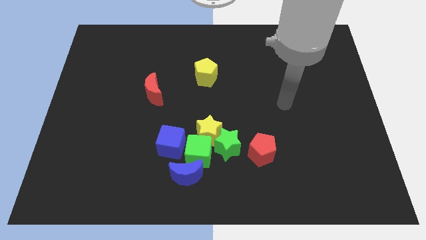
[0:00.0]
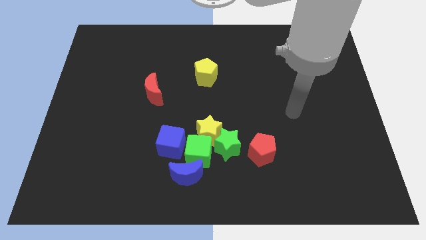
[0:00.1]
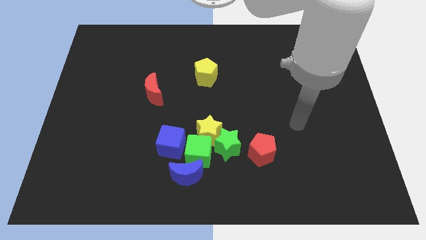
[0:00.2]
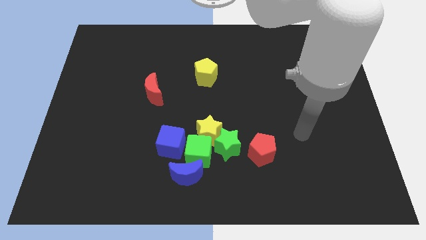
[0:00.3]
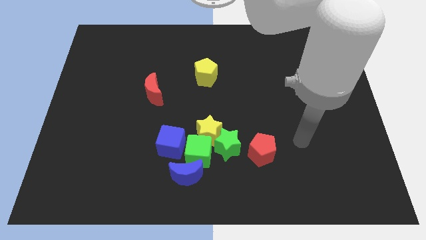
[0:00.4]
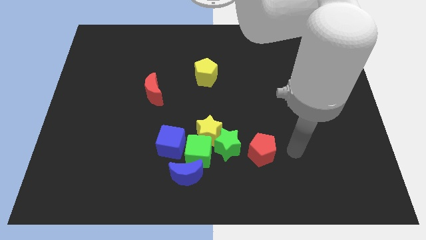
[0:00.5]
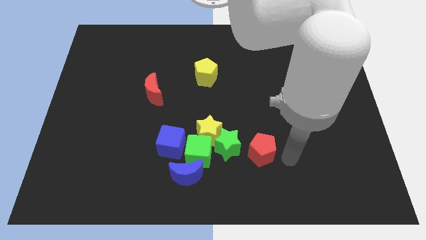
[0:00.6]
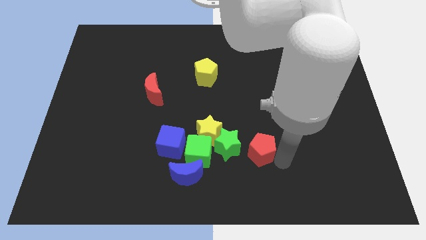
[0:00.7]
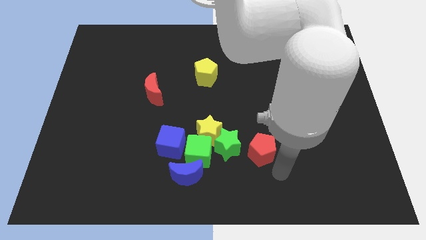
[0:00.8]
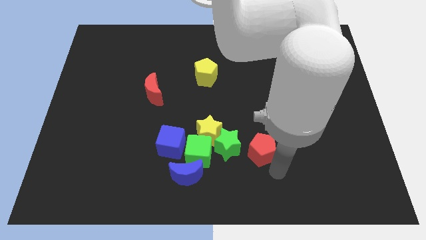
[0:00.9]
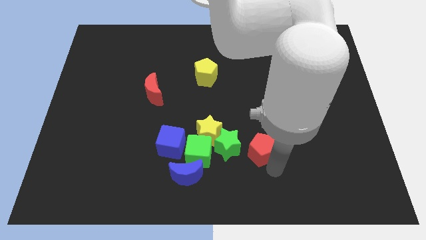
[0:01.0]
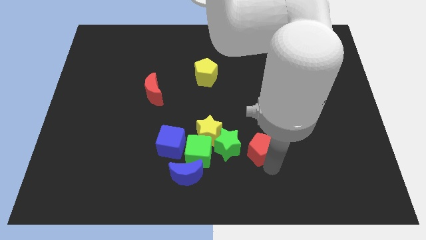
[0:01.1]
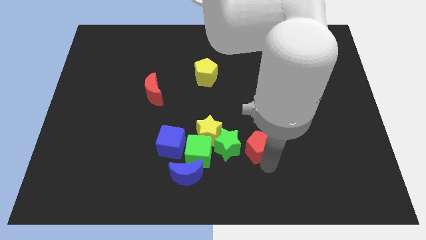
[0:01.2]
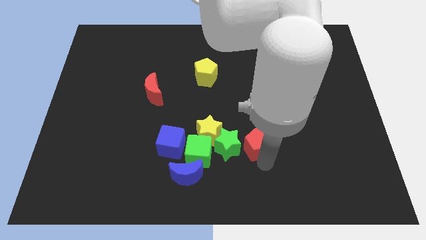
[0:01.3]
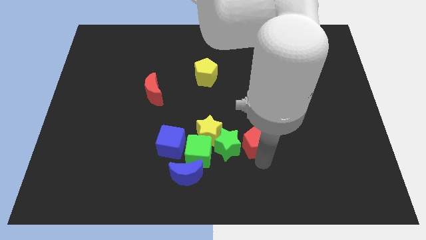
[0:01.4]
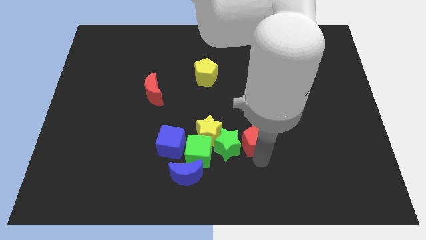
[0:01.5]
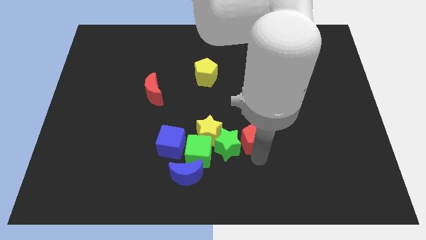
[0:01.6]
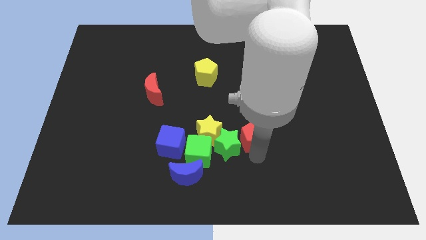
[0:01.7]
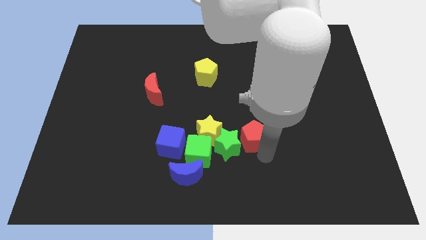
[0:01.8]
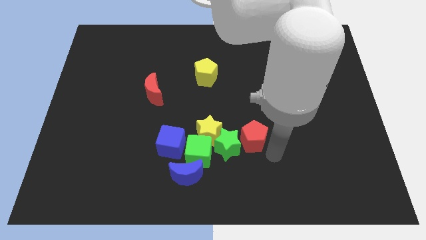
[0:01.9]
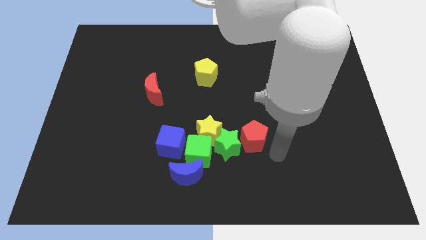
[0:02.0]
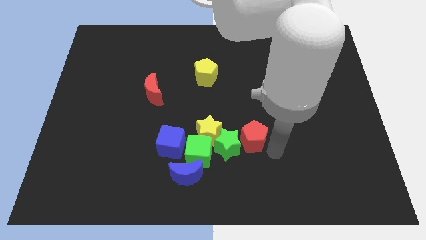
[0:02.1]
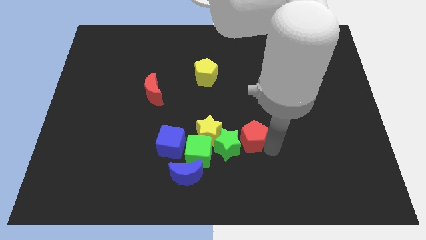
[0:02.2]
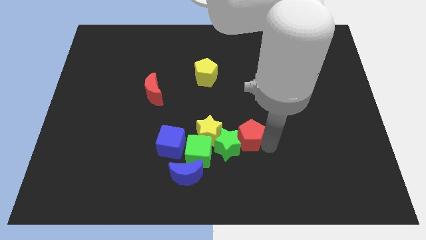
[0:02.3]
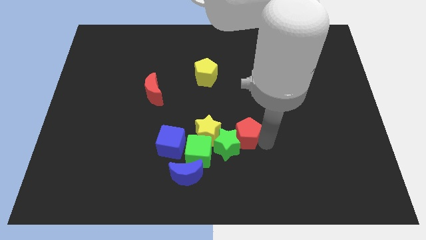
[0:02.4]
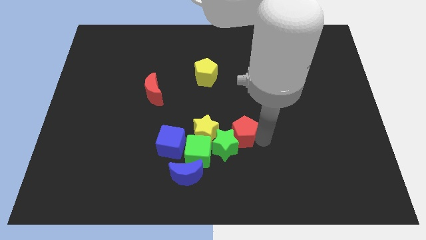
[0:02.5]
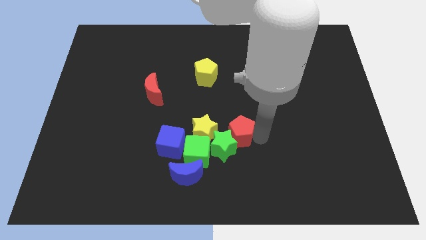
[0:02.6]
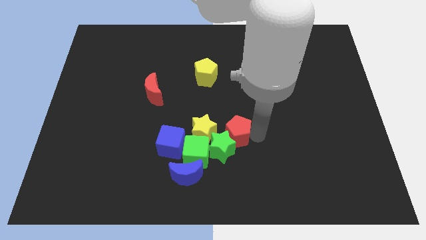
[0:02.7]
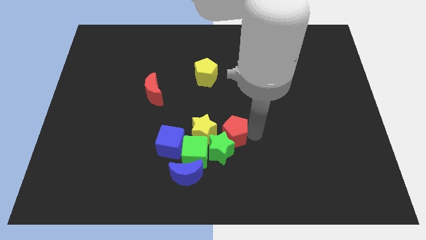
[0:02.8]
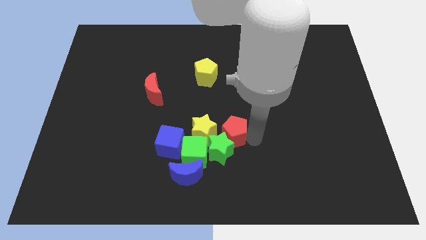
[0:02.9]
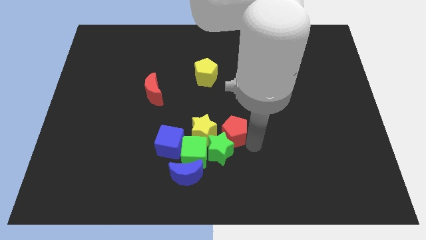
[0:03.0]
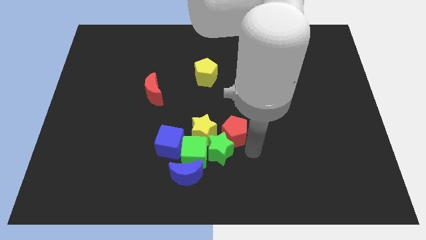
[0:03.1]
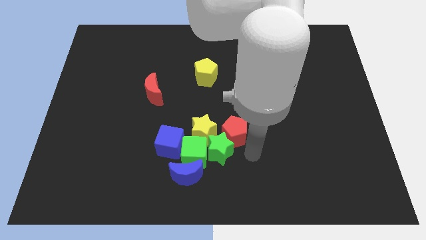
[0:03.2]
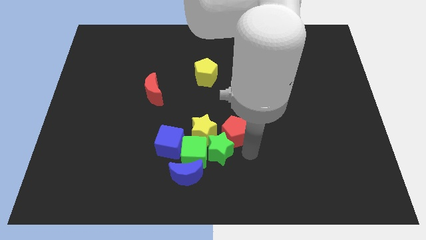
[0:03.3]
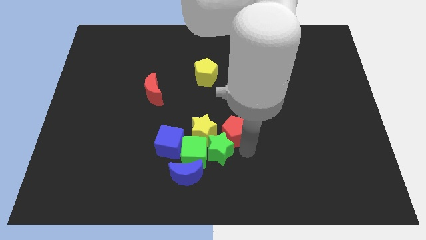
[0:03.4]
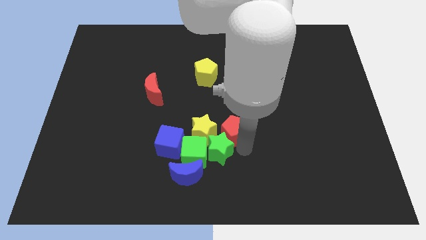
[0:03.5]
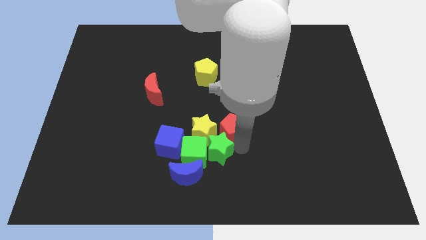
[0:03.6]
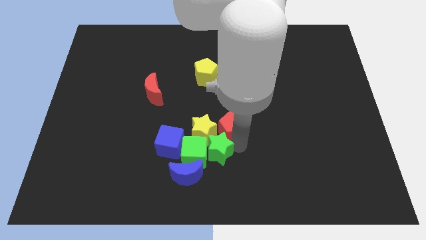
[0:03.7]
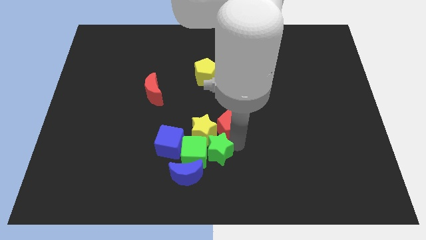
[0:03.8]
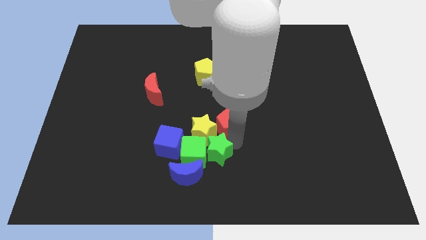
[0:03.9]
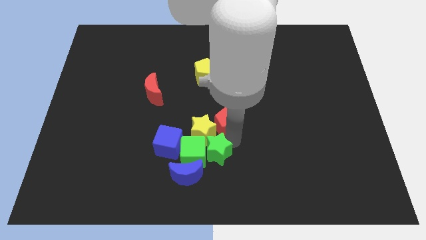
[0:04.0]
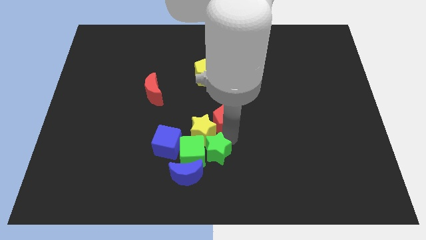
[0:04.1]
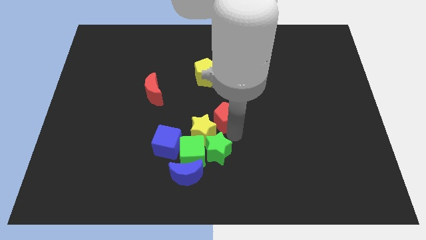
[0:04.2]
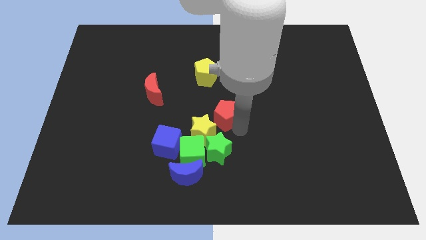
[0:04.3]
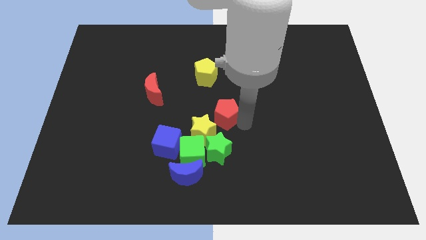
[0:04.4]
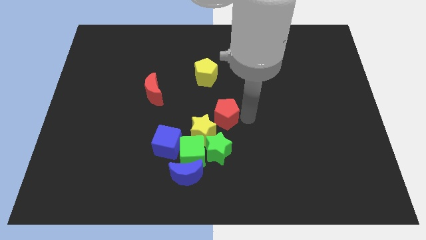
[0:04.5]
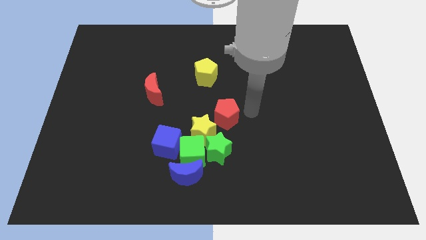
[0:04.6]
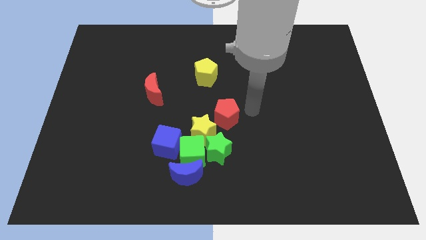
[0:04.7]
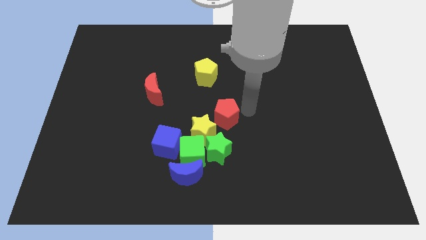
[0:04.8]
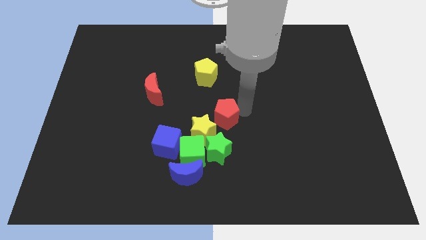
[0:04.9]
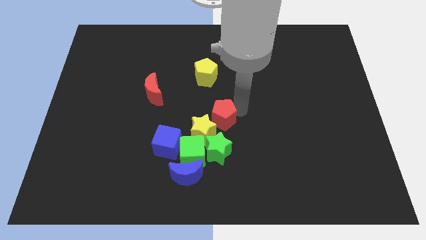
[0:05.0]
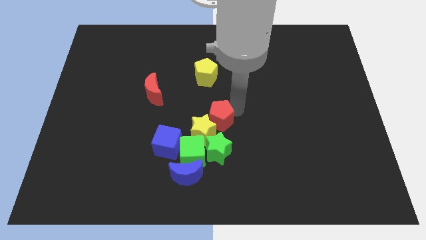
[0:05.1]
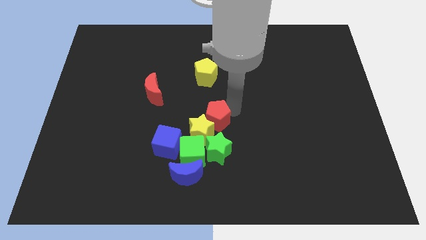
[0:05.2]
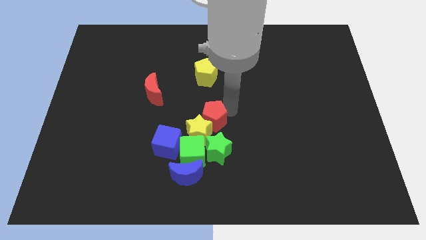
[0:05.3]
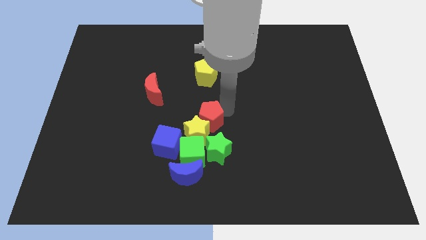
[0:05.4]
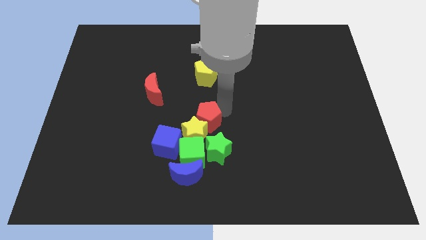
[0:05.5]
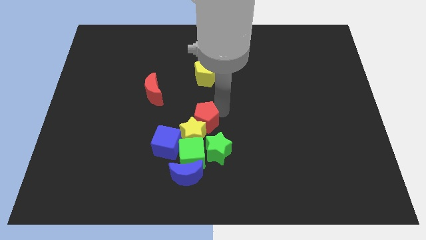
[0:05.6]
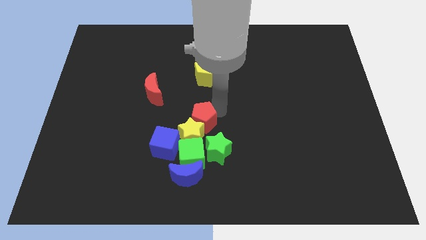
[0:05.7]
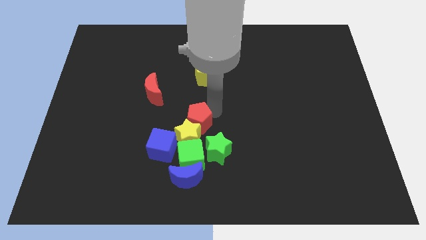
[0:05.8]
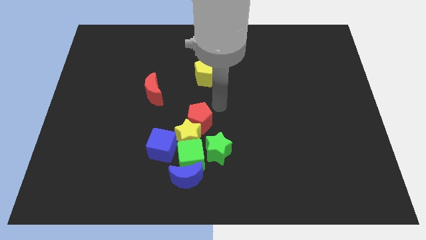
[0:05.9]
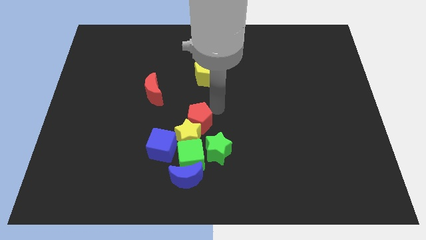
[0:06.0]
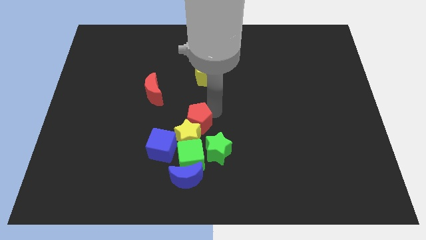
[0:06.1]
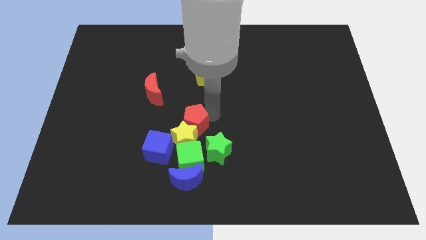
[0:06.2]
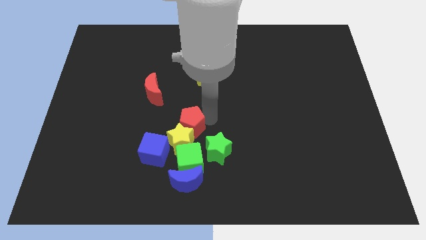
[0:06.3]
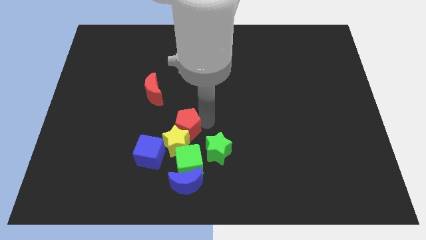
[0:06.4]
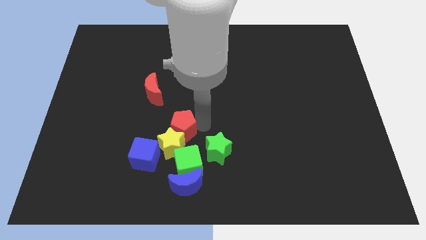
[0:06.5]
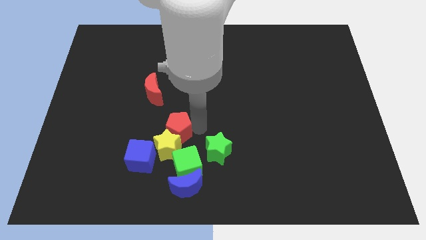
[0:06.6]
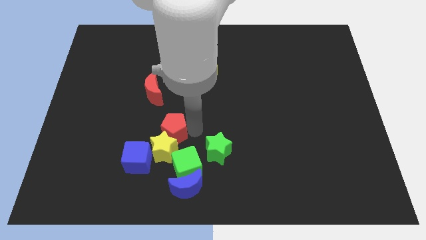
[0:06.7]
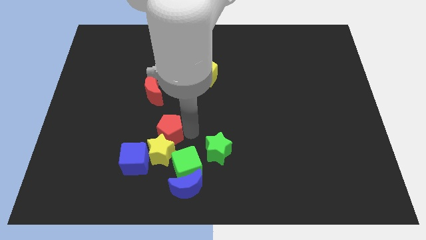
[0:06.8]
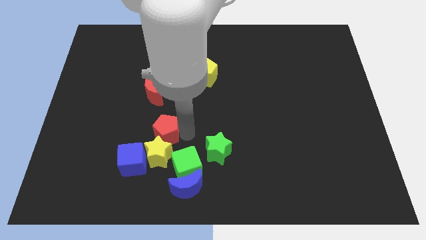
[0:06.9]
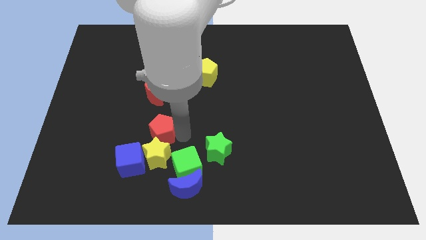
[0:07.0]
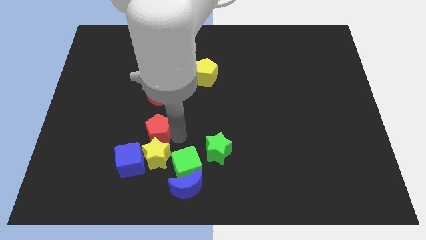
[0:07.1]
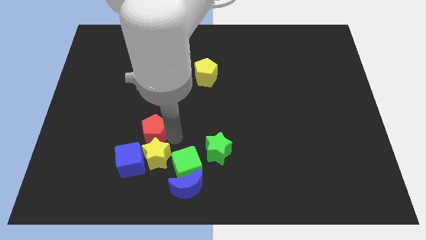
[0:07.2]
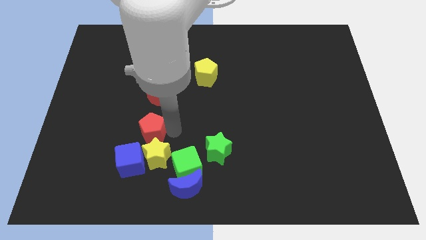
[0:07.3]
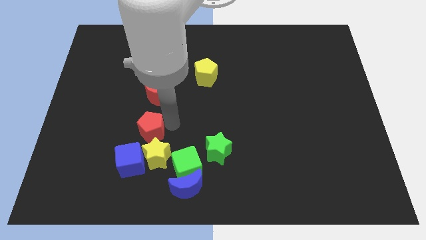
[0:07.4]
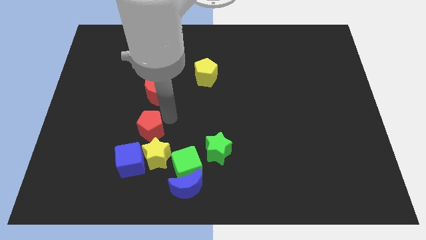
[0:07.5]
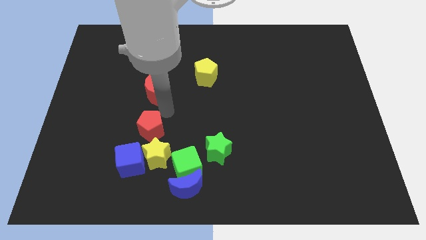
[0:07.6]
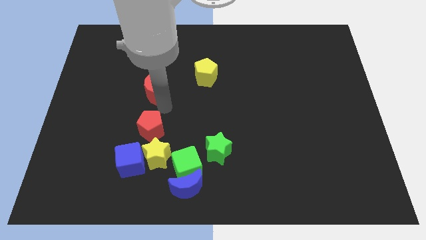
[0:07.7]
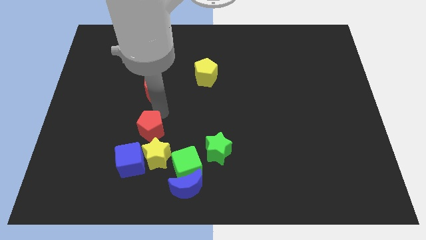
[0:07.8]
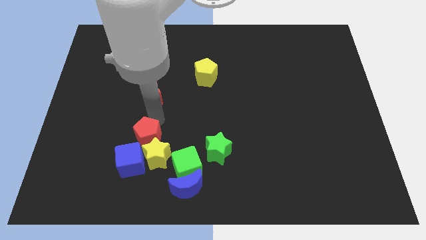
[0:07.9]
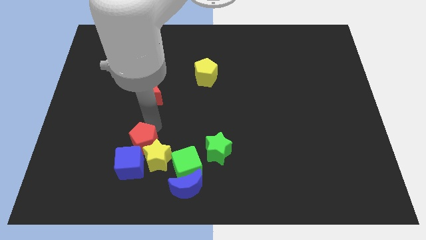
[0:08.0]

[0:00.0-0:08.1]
push the red pentagon close to the blue cube
